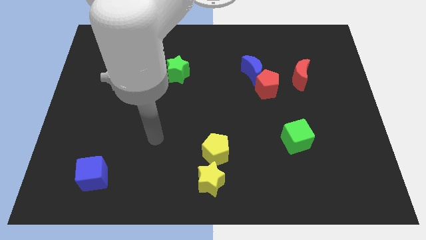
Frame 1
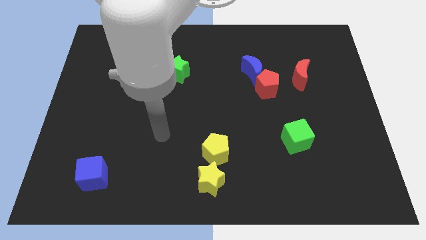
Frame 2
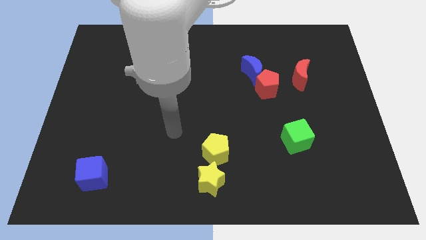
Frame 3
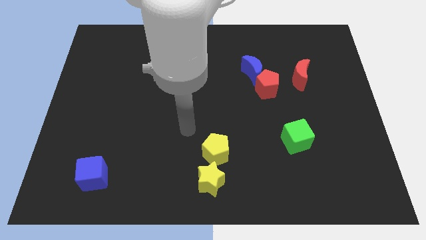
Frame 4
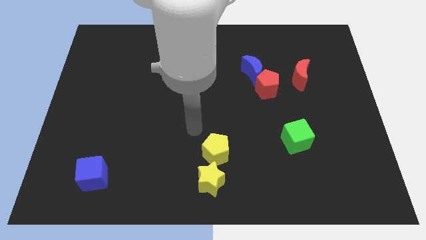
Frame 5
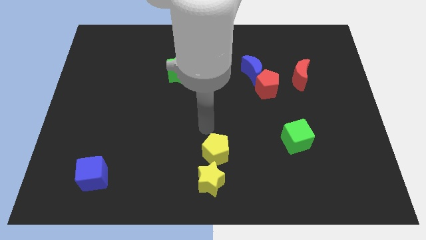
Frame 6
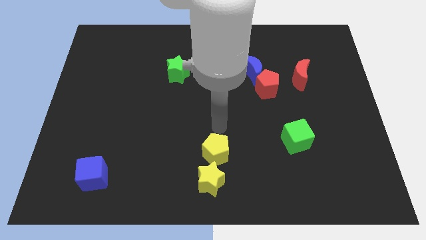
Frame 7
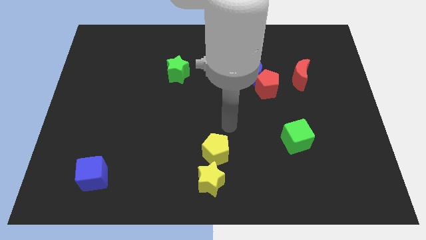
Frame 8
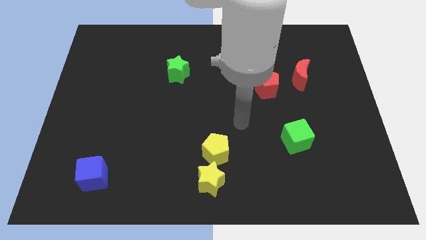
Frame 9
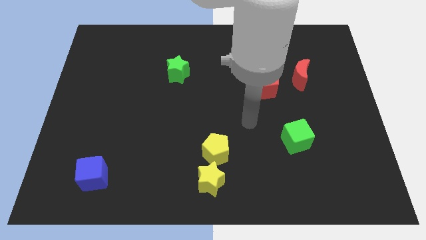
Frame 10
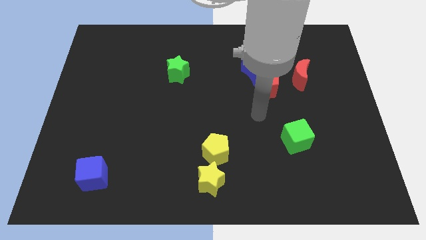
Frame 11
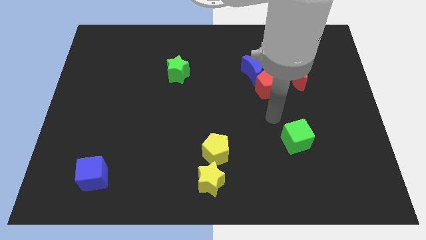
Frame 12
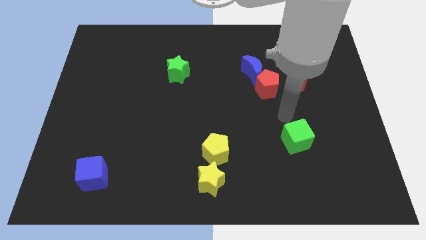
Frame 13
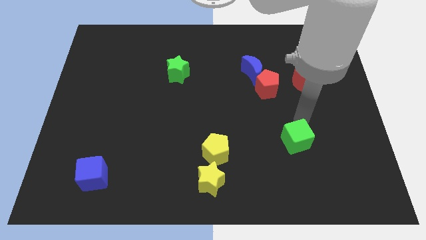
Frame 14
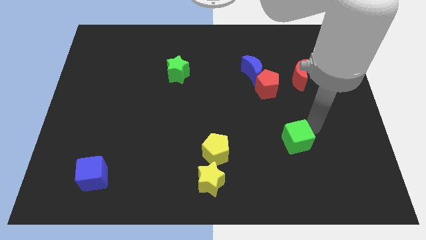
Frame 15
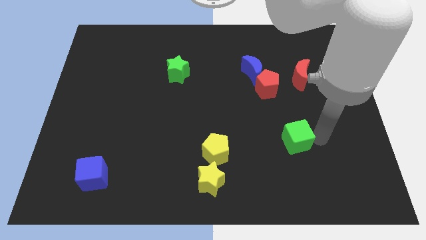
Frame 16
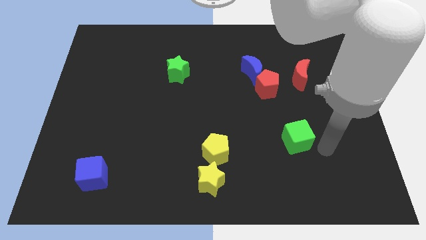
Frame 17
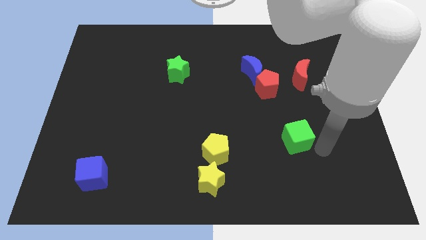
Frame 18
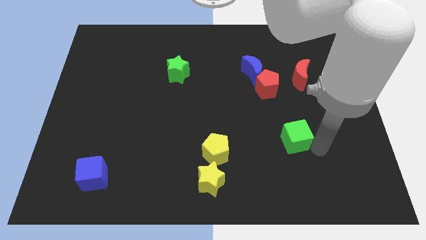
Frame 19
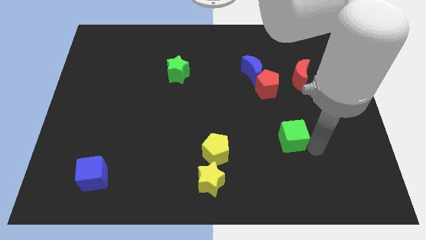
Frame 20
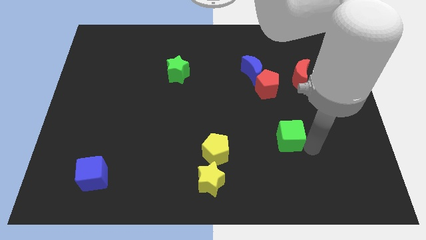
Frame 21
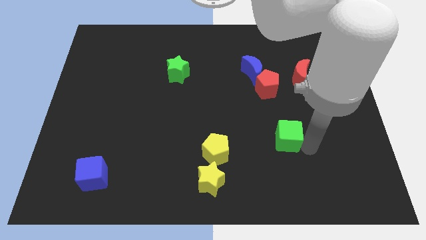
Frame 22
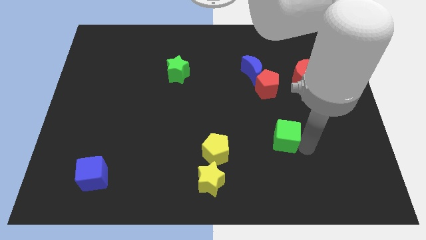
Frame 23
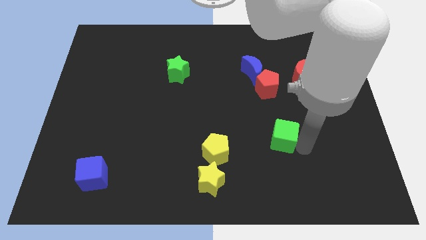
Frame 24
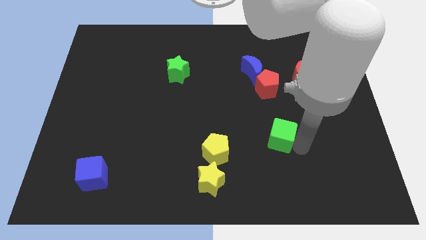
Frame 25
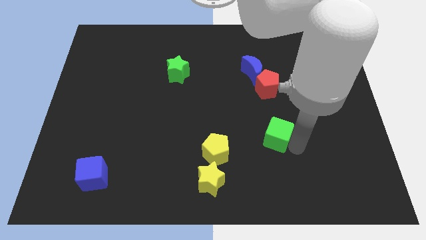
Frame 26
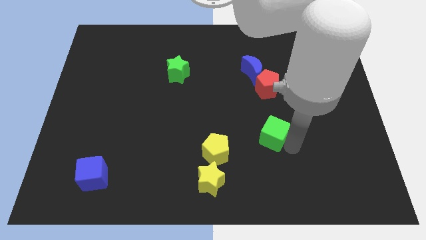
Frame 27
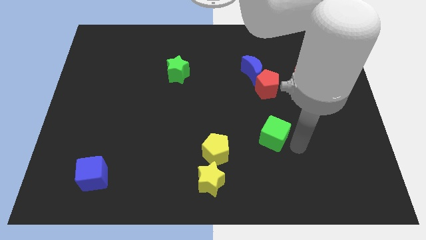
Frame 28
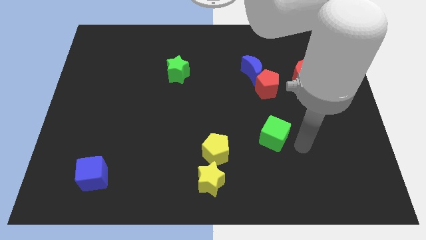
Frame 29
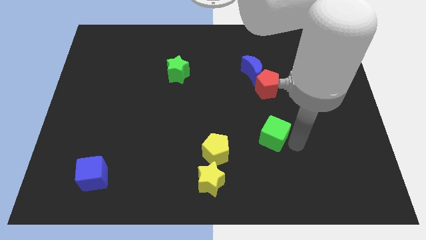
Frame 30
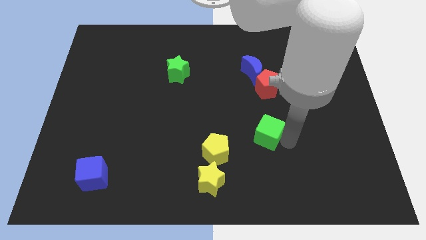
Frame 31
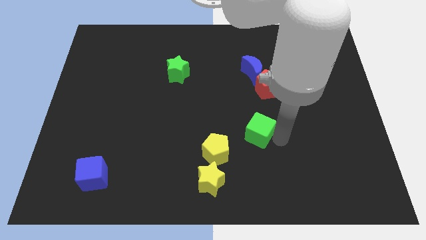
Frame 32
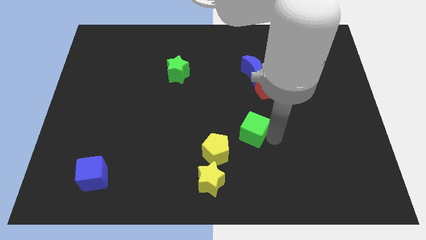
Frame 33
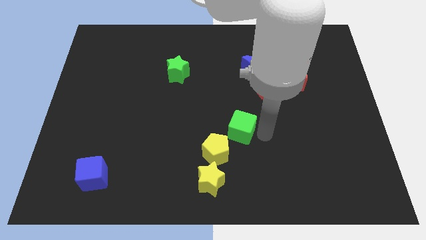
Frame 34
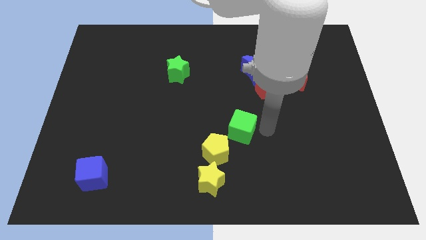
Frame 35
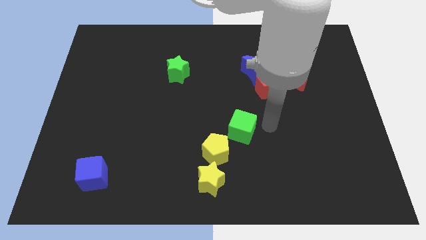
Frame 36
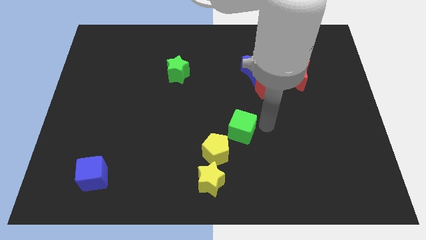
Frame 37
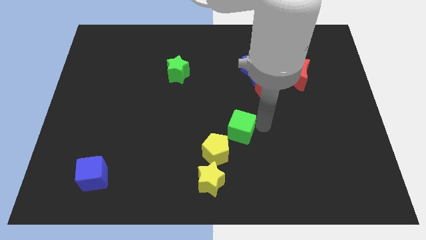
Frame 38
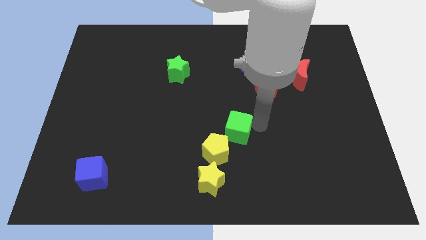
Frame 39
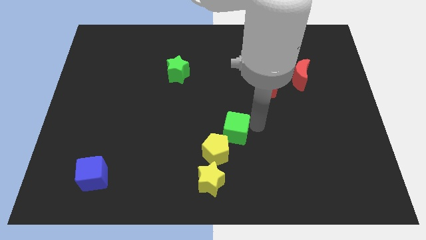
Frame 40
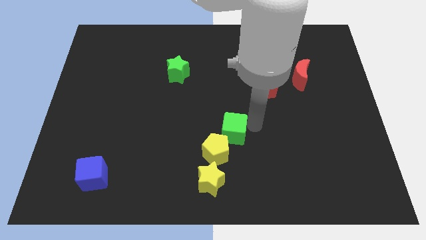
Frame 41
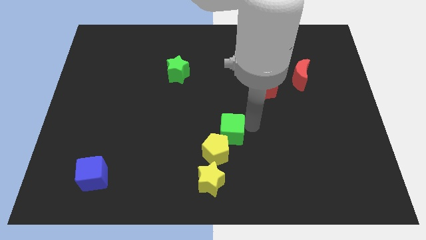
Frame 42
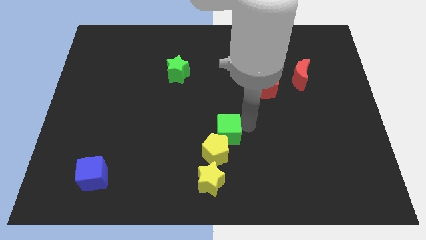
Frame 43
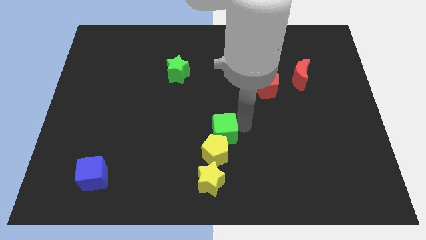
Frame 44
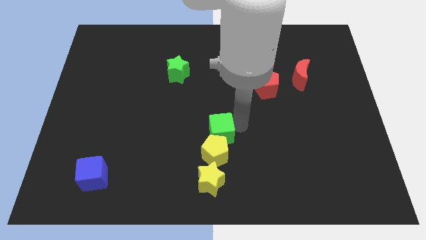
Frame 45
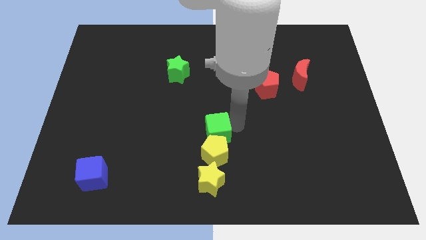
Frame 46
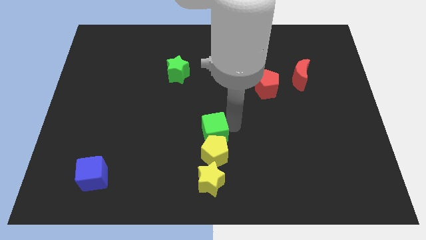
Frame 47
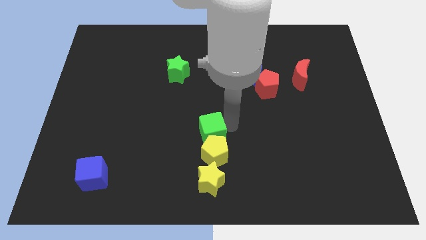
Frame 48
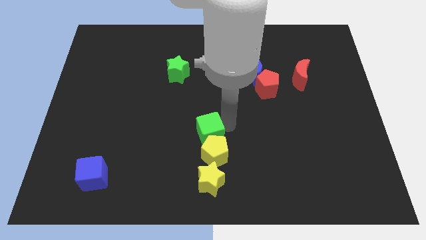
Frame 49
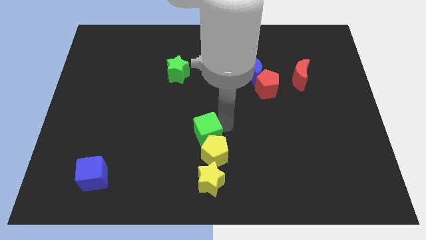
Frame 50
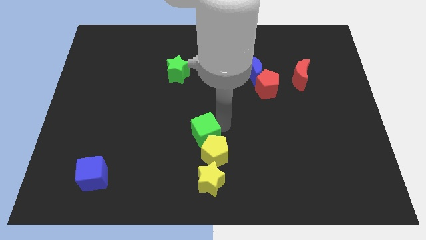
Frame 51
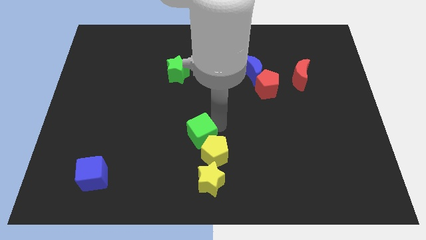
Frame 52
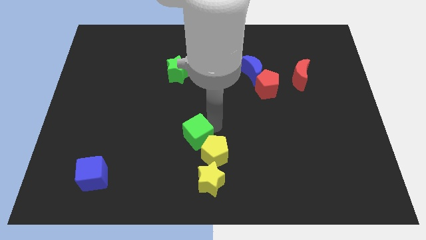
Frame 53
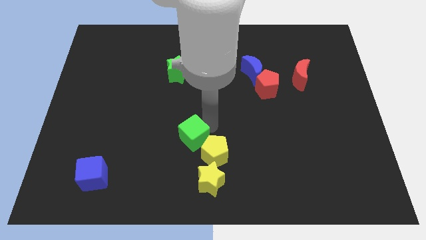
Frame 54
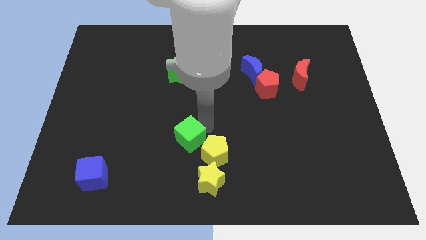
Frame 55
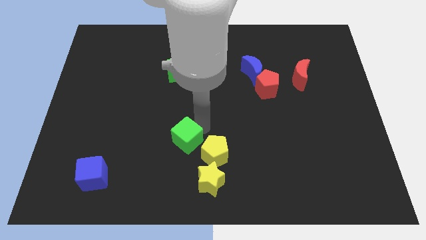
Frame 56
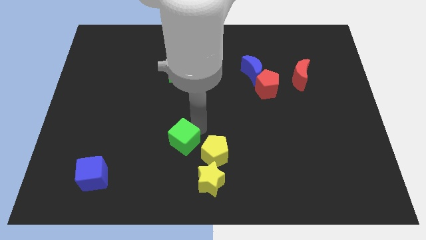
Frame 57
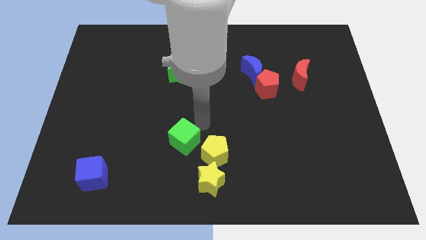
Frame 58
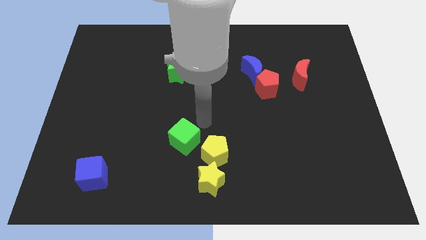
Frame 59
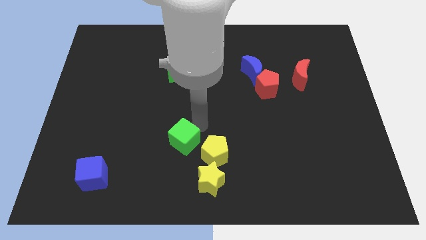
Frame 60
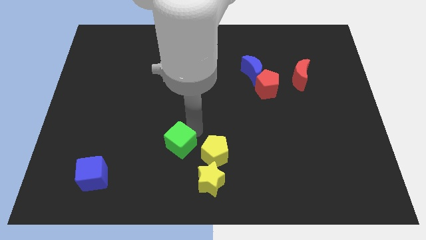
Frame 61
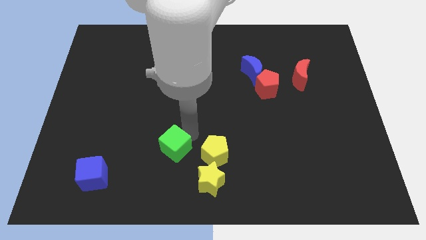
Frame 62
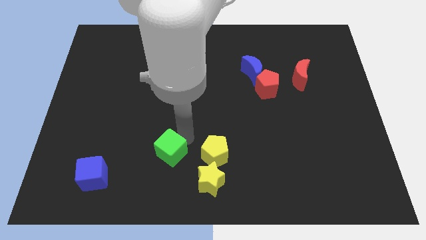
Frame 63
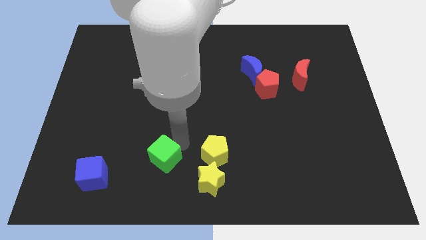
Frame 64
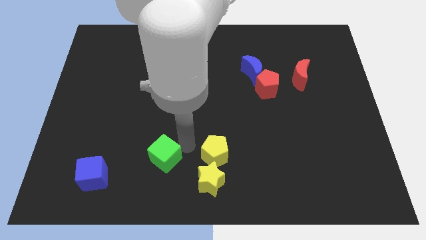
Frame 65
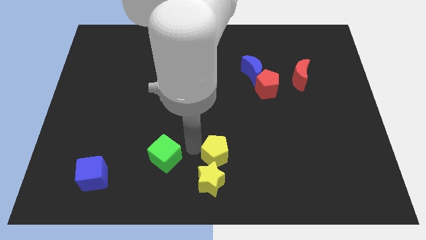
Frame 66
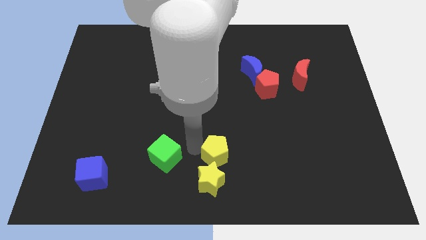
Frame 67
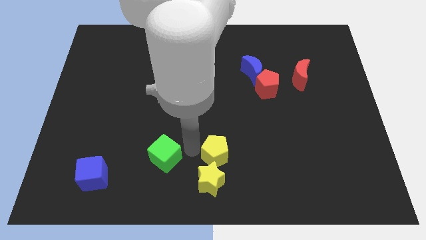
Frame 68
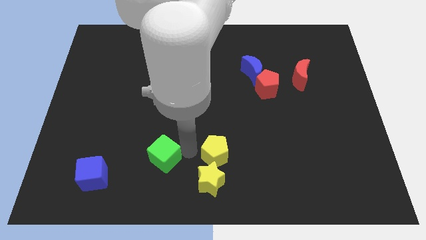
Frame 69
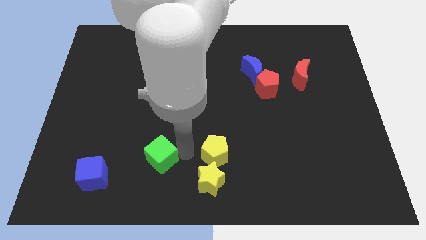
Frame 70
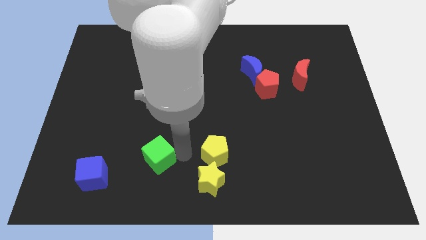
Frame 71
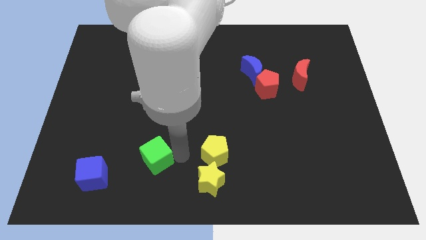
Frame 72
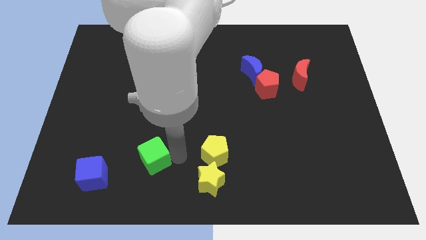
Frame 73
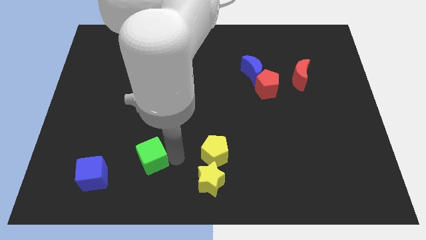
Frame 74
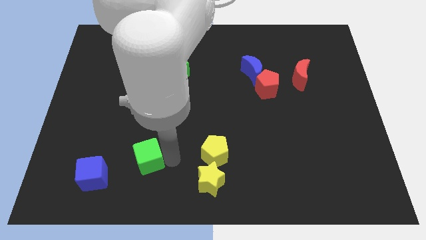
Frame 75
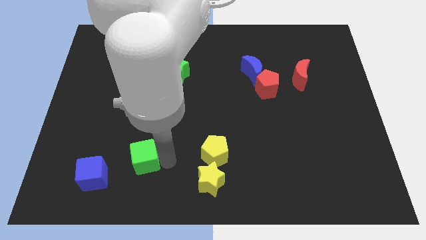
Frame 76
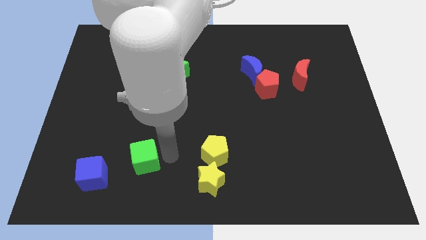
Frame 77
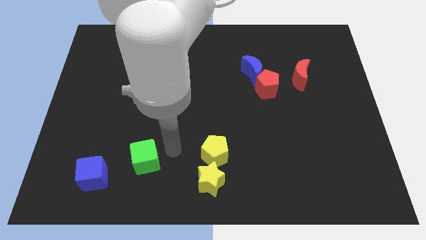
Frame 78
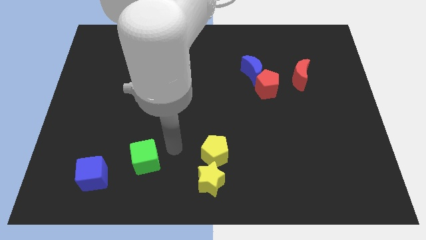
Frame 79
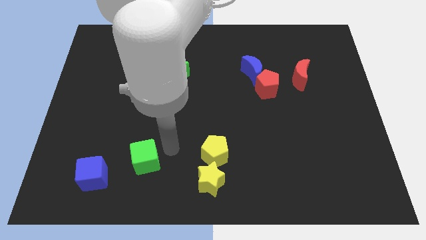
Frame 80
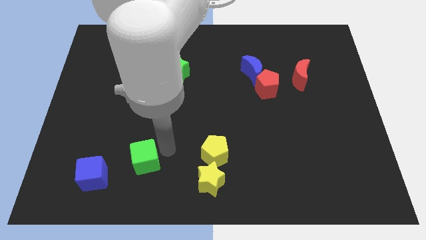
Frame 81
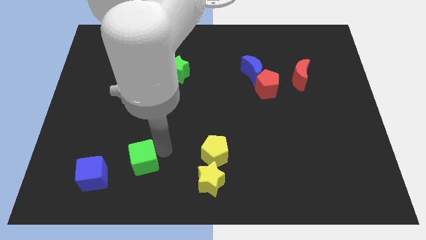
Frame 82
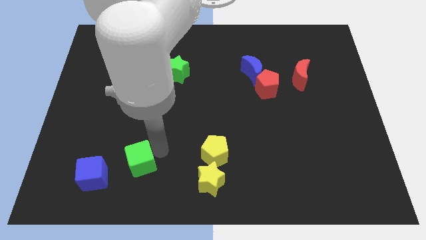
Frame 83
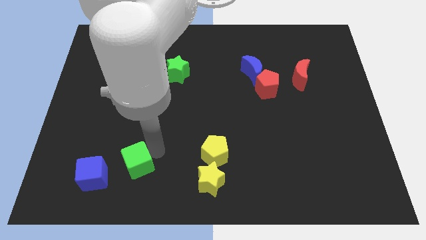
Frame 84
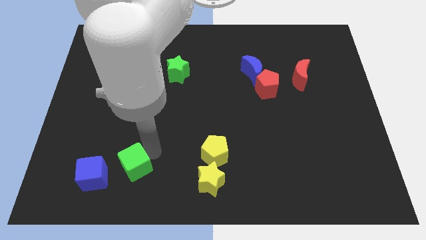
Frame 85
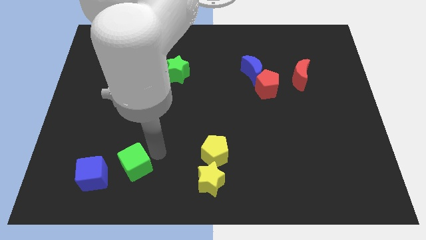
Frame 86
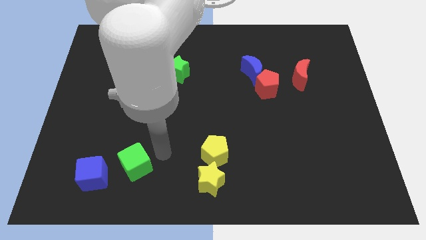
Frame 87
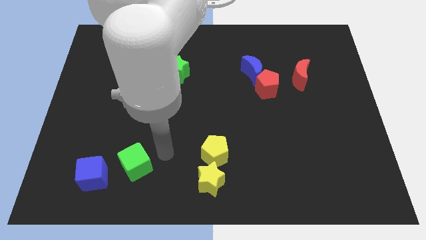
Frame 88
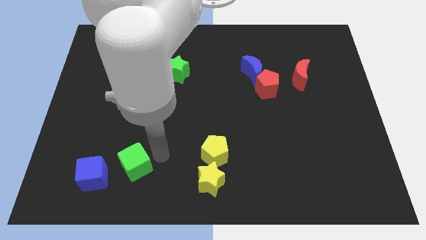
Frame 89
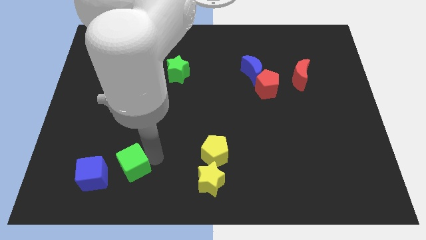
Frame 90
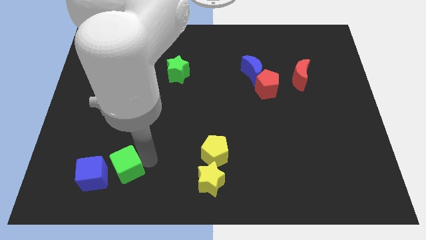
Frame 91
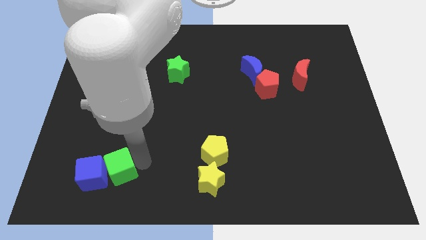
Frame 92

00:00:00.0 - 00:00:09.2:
push the green cube close to the blue cube
